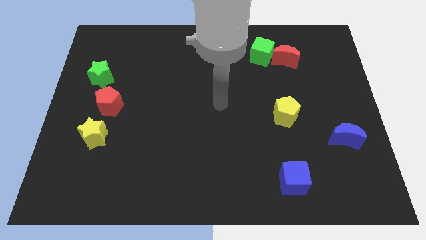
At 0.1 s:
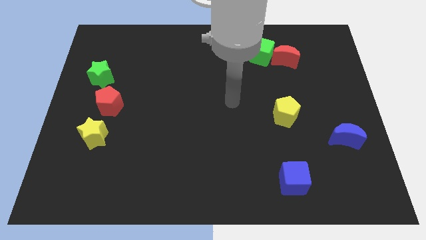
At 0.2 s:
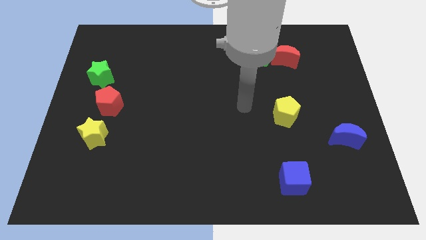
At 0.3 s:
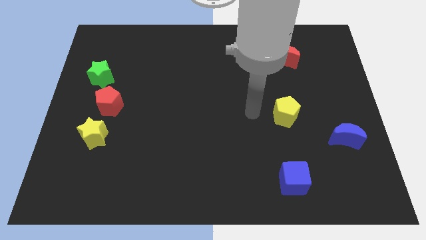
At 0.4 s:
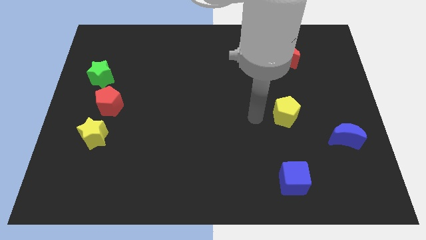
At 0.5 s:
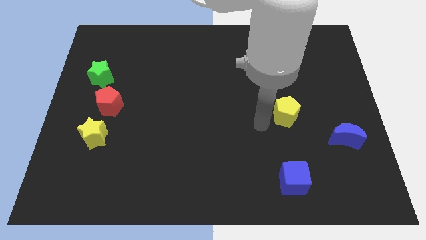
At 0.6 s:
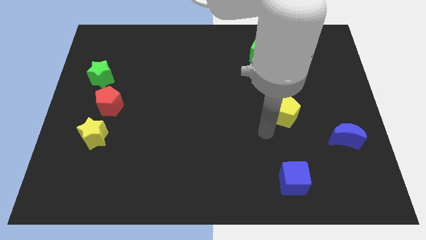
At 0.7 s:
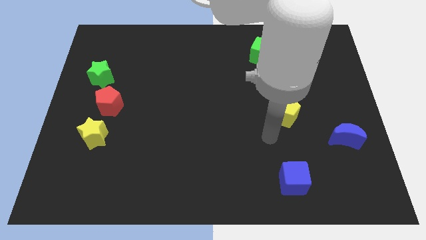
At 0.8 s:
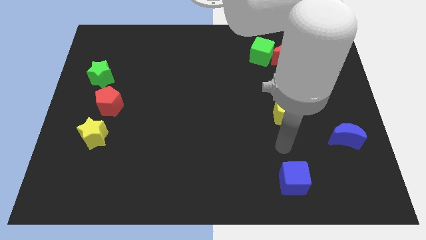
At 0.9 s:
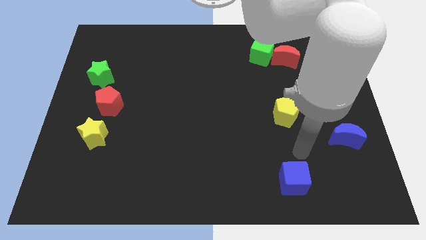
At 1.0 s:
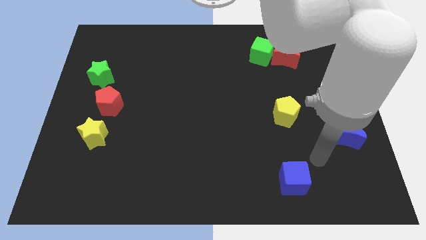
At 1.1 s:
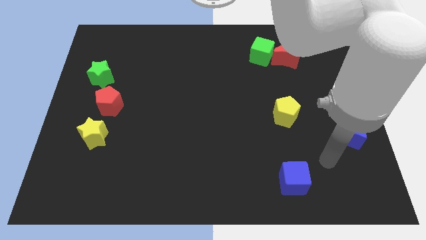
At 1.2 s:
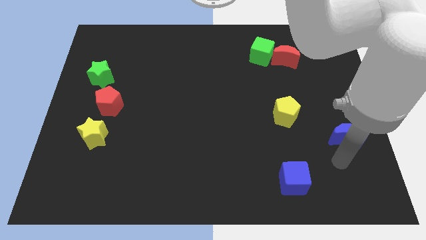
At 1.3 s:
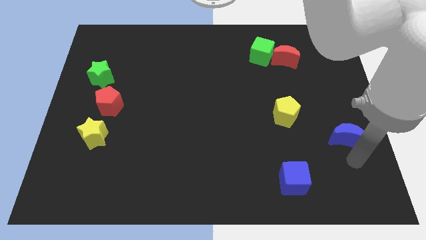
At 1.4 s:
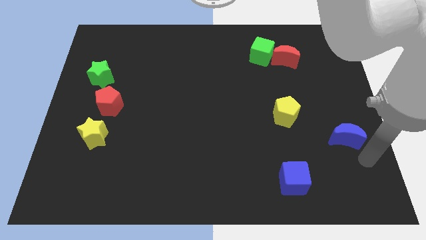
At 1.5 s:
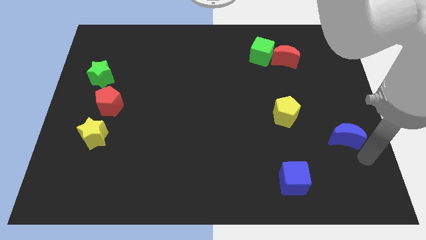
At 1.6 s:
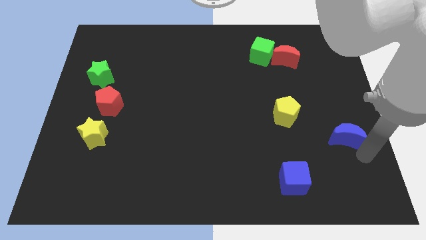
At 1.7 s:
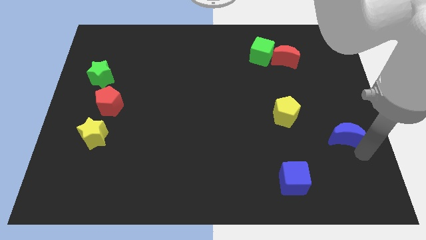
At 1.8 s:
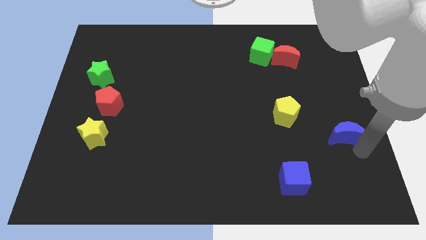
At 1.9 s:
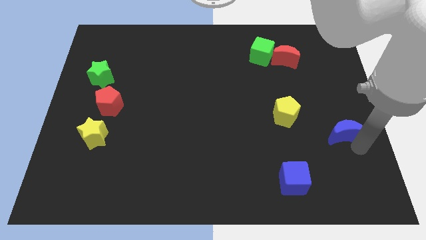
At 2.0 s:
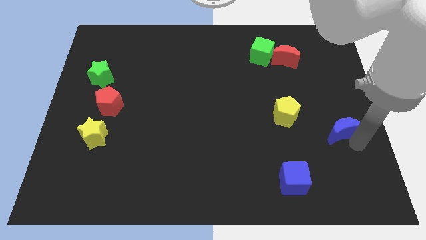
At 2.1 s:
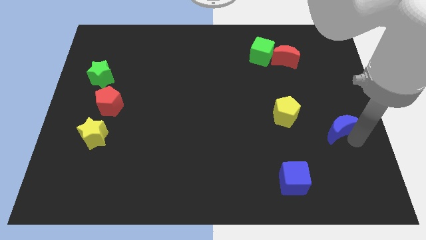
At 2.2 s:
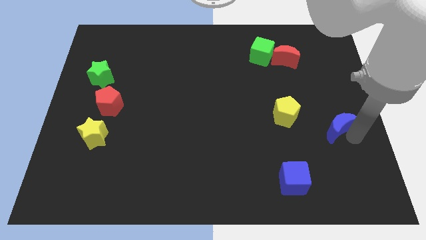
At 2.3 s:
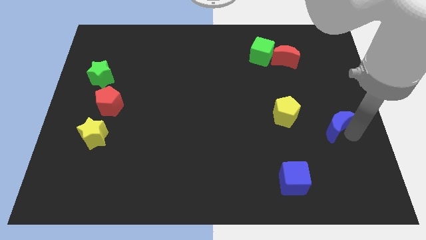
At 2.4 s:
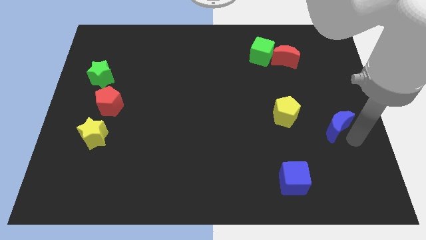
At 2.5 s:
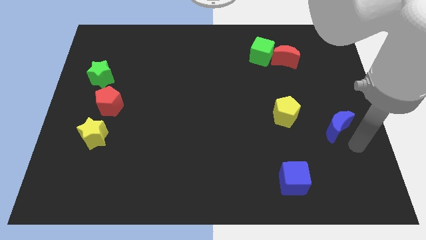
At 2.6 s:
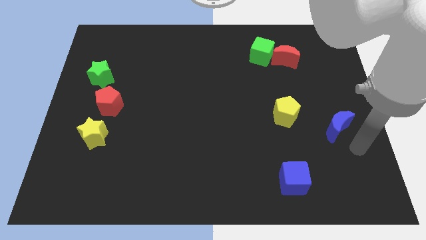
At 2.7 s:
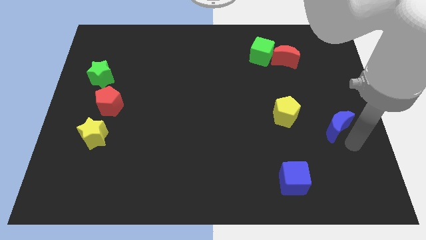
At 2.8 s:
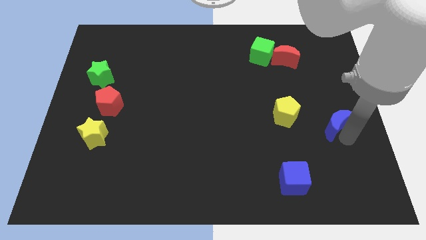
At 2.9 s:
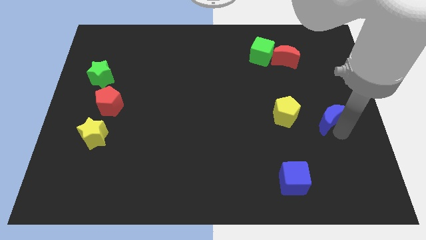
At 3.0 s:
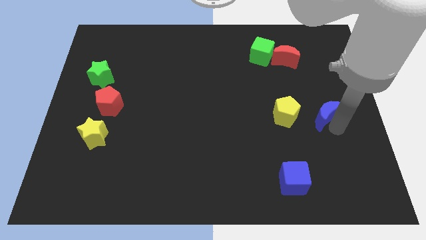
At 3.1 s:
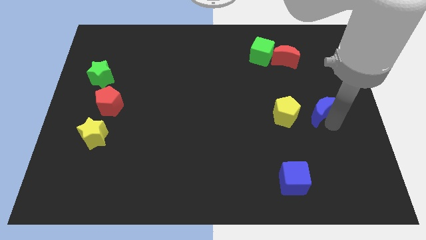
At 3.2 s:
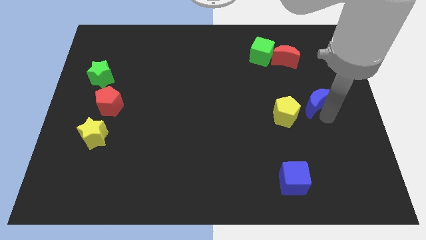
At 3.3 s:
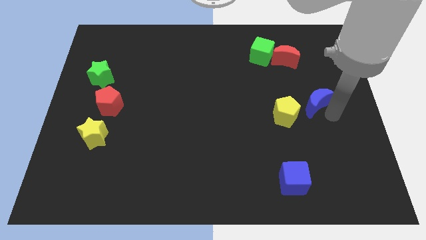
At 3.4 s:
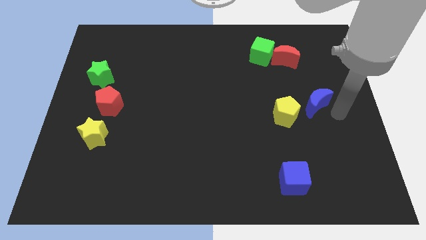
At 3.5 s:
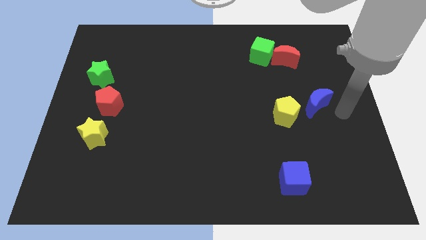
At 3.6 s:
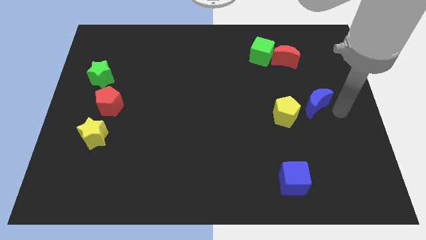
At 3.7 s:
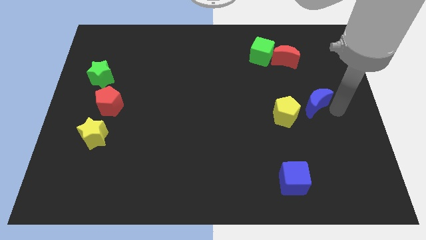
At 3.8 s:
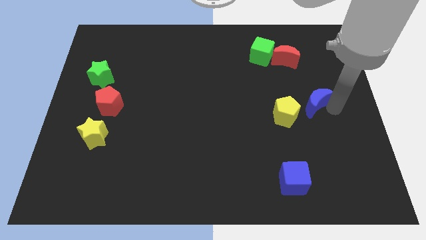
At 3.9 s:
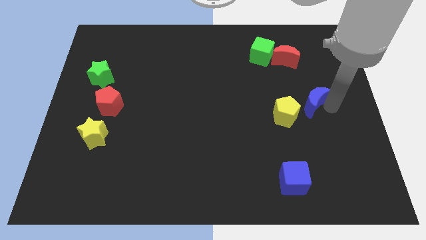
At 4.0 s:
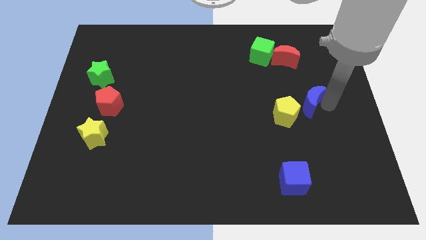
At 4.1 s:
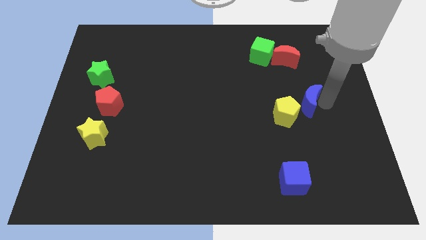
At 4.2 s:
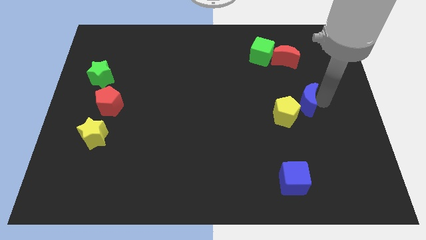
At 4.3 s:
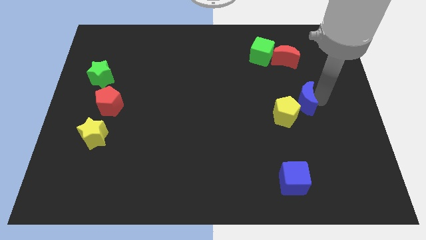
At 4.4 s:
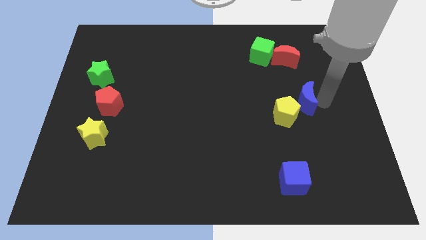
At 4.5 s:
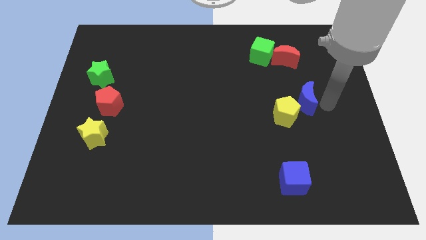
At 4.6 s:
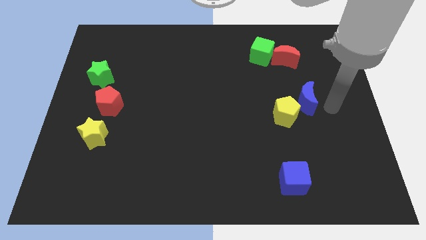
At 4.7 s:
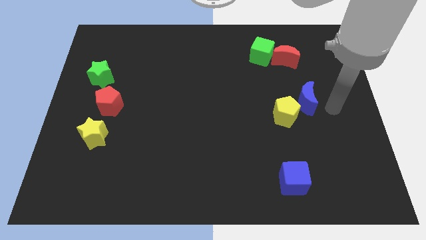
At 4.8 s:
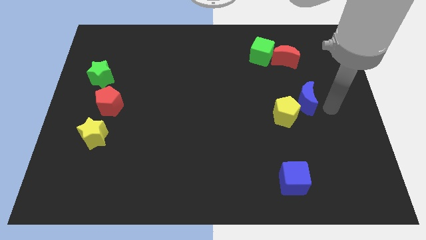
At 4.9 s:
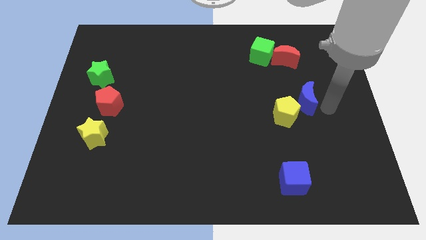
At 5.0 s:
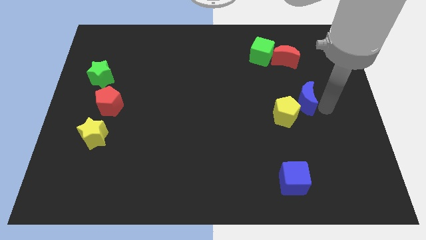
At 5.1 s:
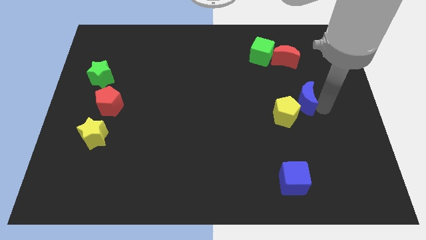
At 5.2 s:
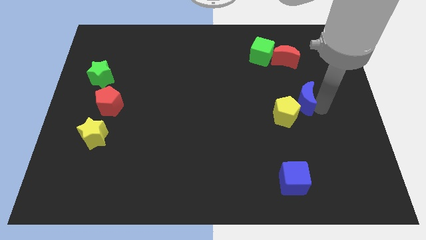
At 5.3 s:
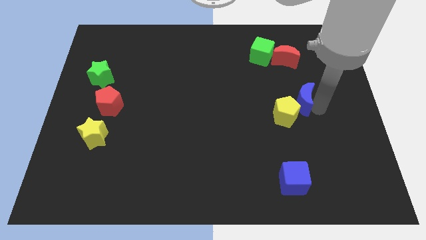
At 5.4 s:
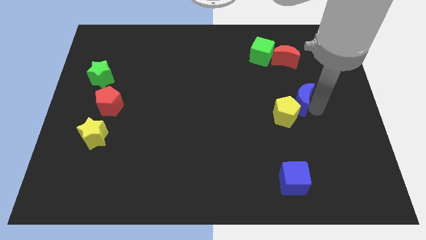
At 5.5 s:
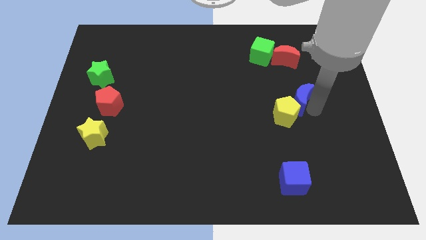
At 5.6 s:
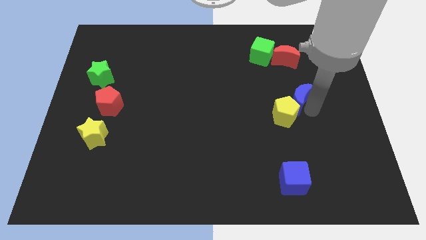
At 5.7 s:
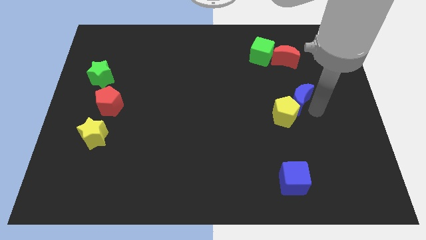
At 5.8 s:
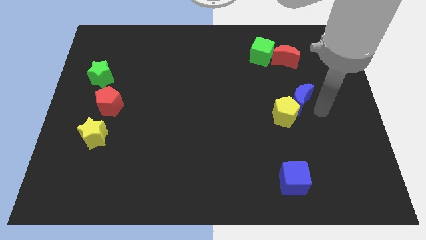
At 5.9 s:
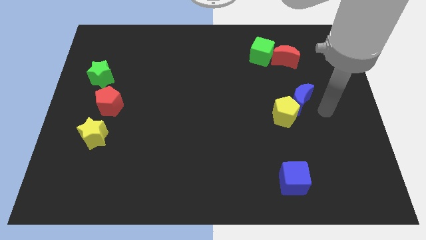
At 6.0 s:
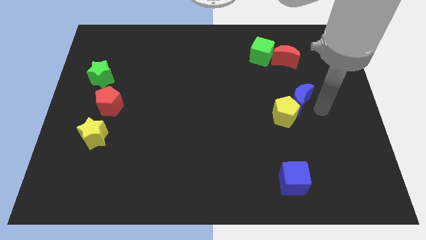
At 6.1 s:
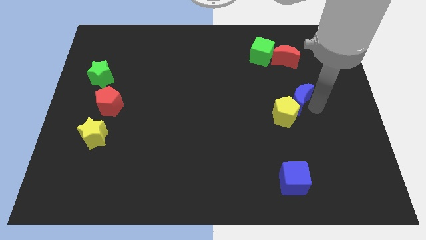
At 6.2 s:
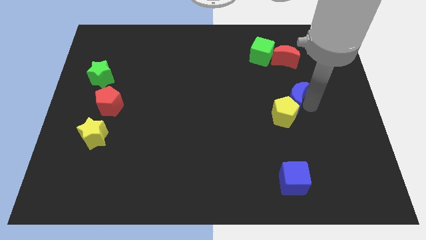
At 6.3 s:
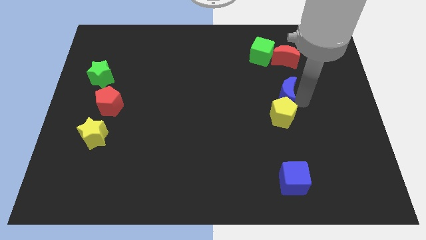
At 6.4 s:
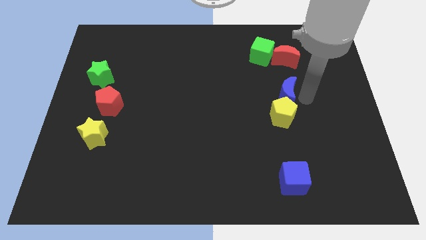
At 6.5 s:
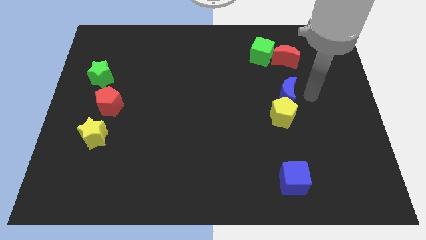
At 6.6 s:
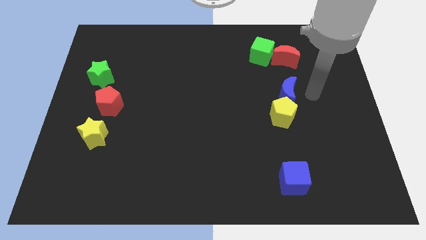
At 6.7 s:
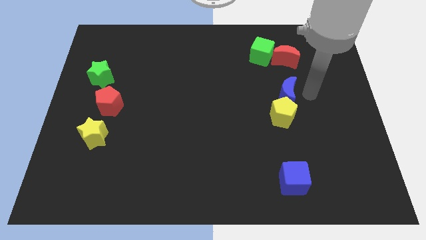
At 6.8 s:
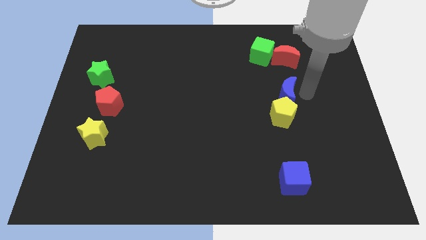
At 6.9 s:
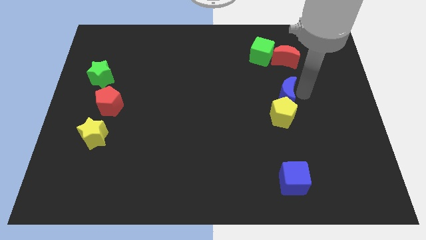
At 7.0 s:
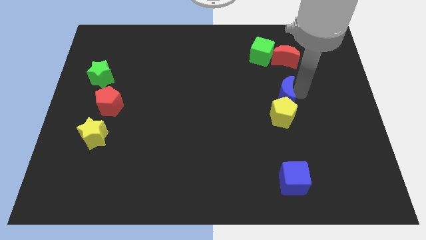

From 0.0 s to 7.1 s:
move the blue moon to the top left side of the yellow pentagon

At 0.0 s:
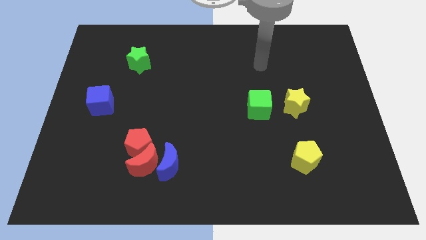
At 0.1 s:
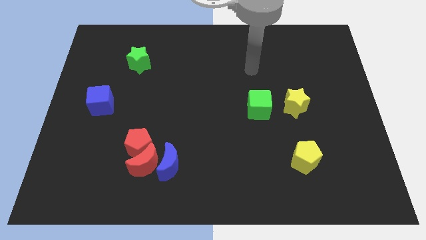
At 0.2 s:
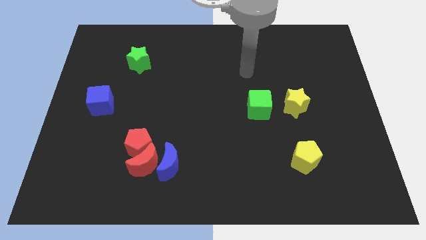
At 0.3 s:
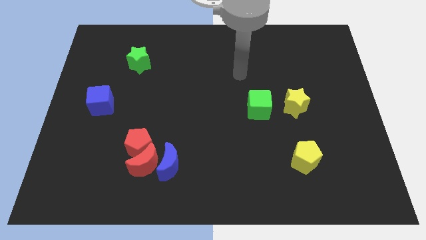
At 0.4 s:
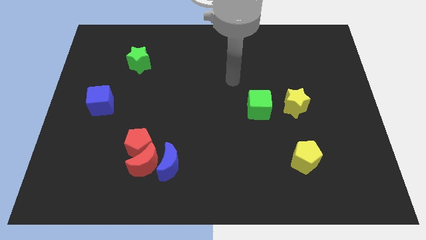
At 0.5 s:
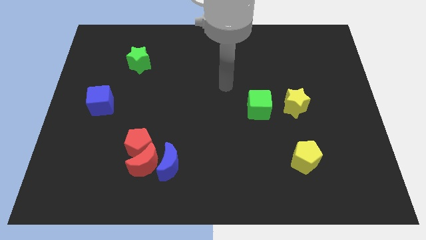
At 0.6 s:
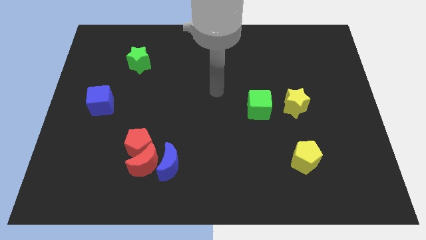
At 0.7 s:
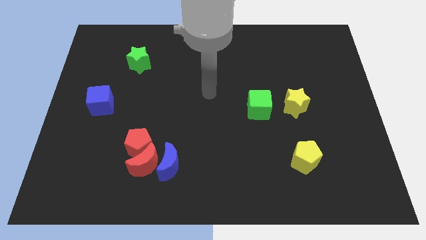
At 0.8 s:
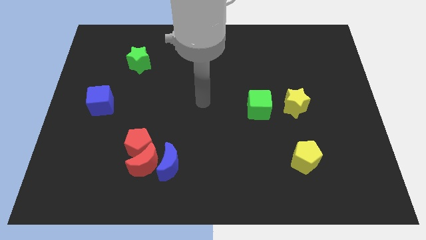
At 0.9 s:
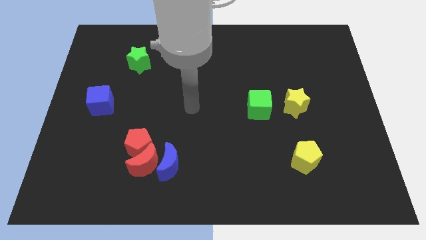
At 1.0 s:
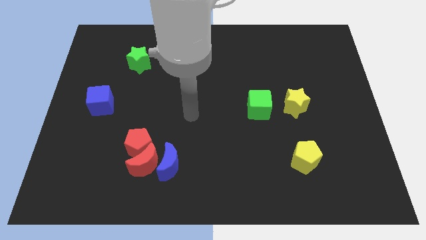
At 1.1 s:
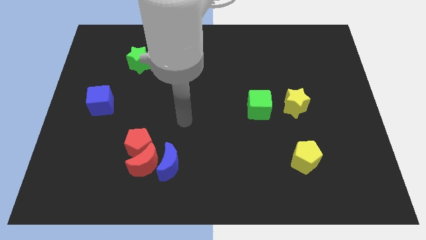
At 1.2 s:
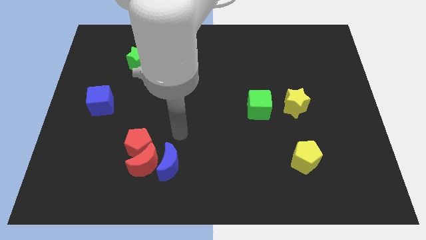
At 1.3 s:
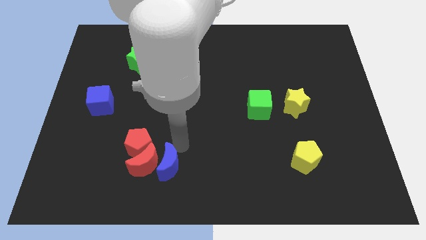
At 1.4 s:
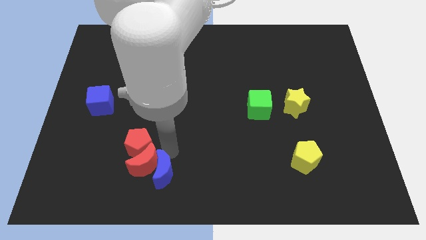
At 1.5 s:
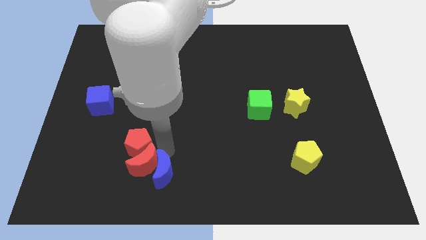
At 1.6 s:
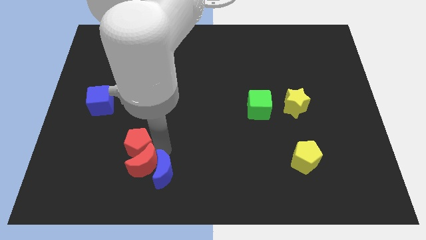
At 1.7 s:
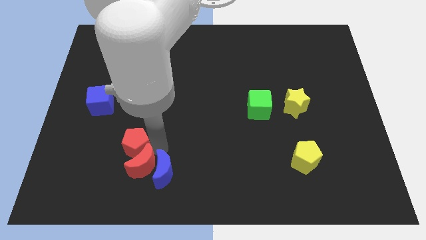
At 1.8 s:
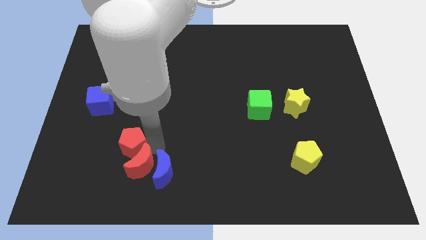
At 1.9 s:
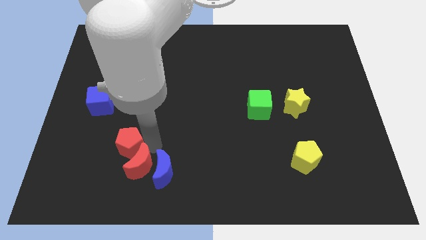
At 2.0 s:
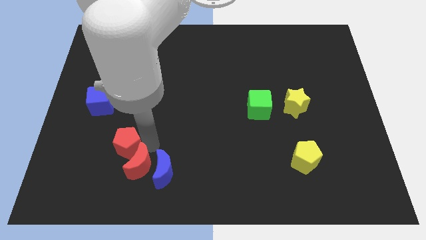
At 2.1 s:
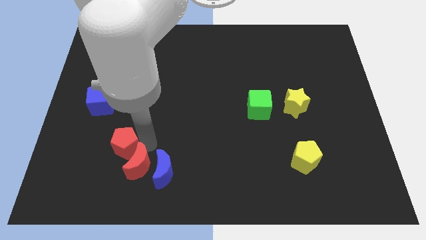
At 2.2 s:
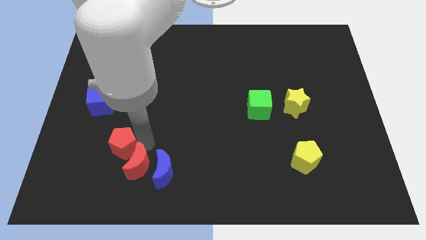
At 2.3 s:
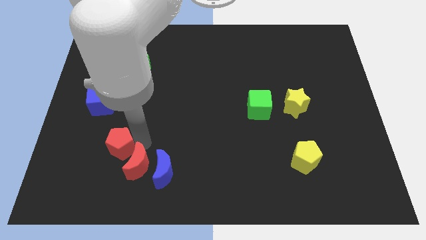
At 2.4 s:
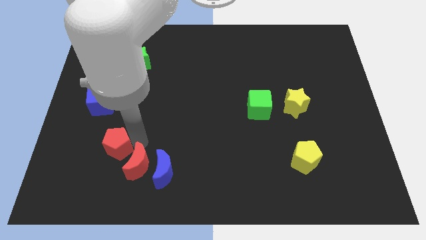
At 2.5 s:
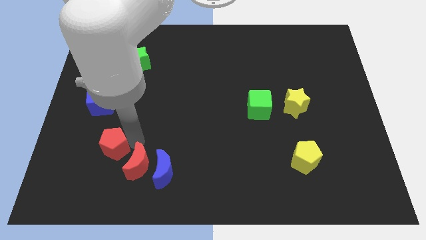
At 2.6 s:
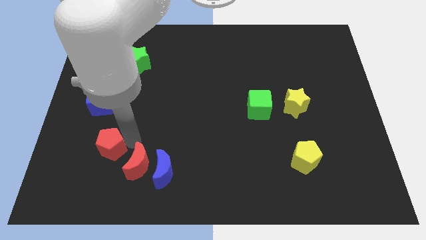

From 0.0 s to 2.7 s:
push the red pentagon to the bottom side of the blue cube
